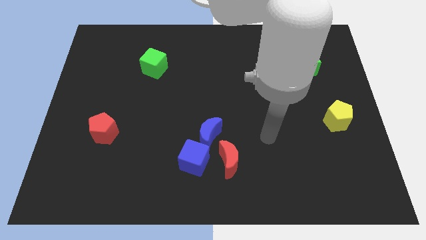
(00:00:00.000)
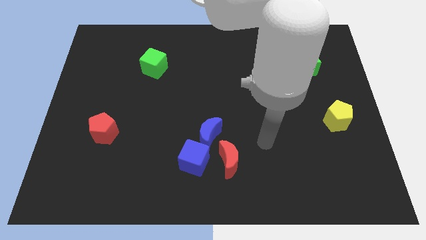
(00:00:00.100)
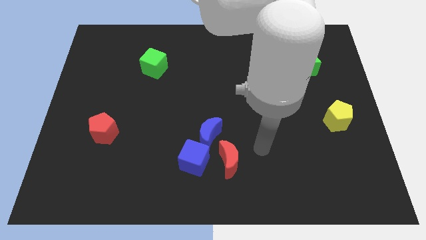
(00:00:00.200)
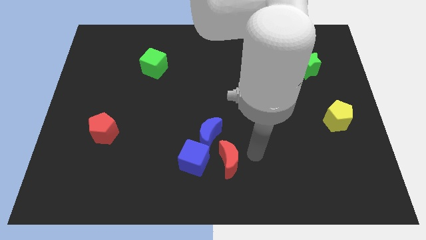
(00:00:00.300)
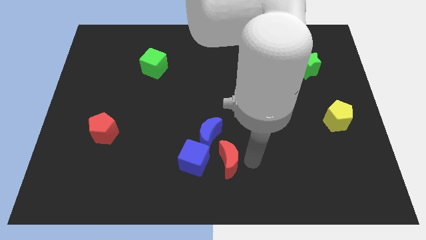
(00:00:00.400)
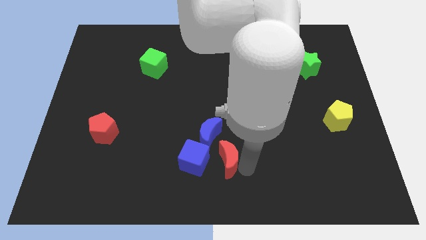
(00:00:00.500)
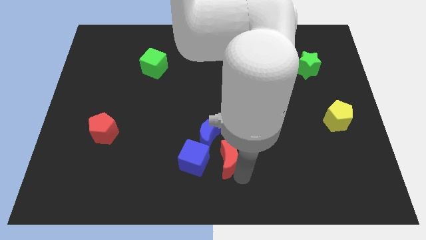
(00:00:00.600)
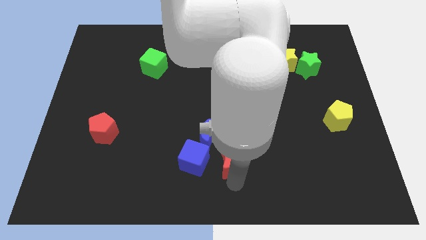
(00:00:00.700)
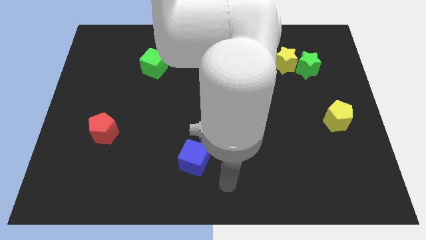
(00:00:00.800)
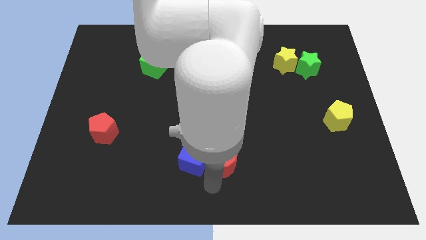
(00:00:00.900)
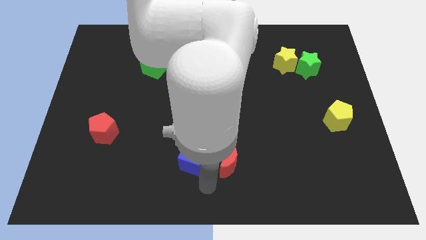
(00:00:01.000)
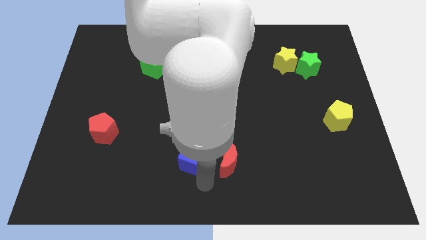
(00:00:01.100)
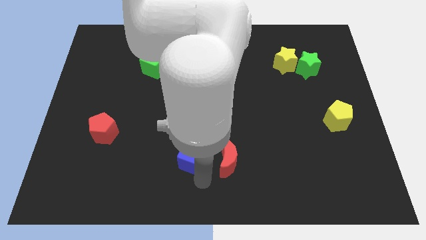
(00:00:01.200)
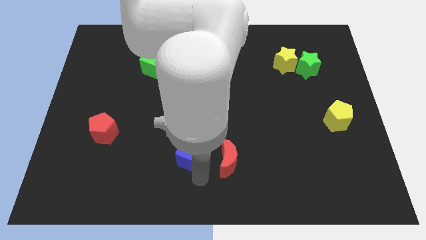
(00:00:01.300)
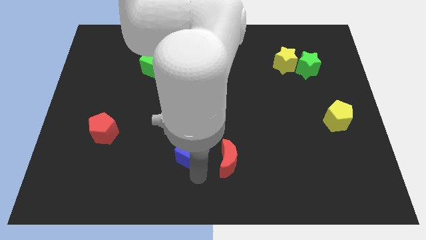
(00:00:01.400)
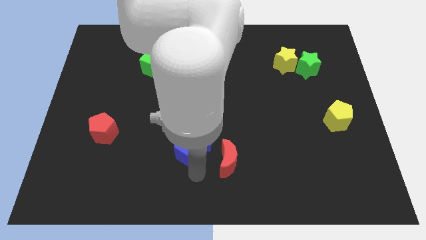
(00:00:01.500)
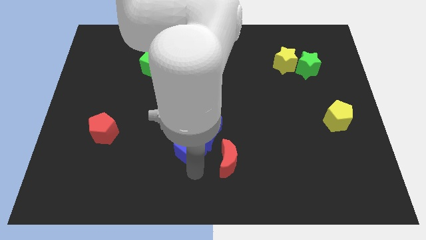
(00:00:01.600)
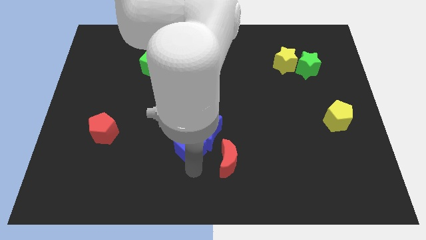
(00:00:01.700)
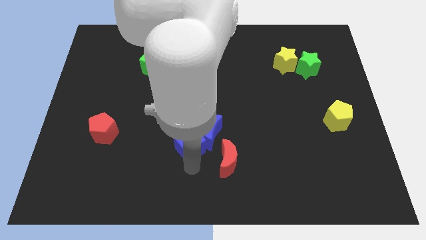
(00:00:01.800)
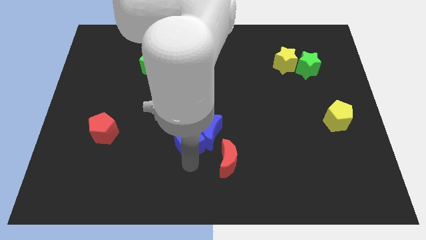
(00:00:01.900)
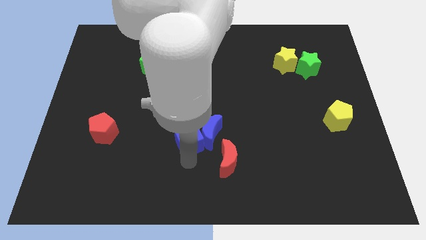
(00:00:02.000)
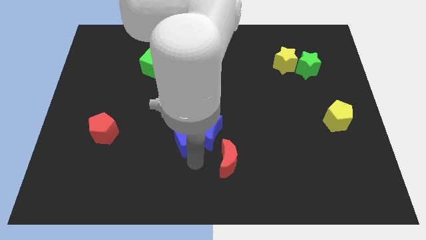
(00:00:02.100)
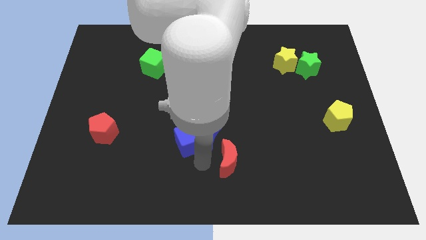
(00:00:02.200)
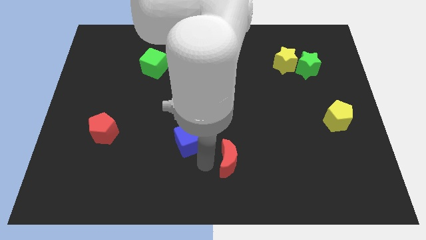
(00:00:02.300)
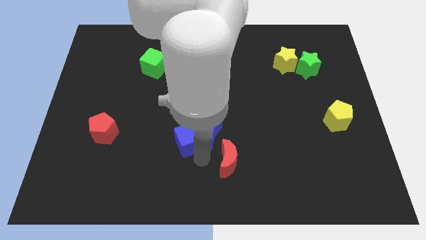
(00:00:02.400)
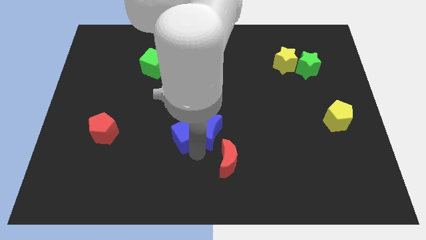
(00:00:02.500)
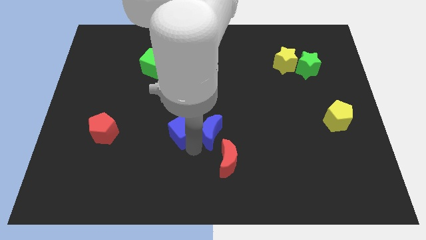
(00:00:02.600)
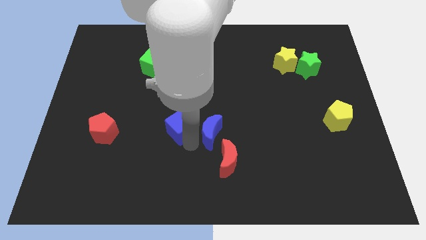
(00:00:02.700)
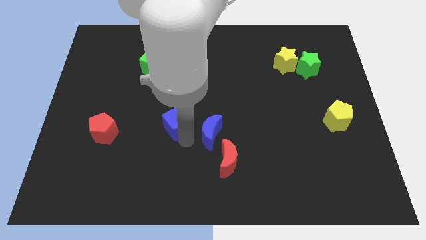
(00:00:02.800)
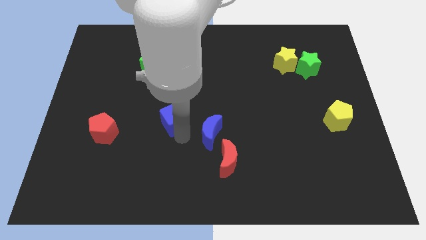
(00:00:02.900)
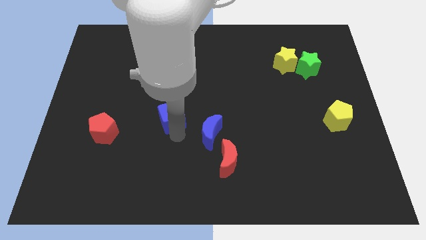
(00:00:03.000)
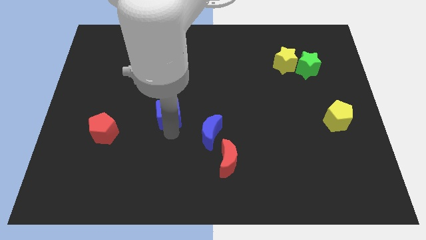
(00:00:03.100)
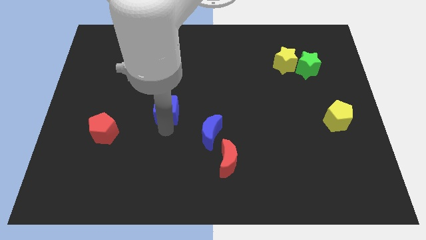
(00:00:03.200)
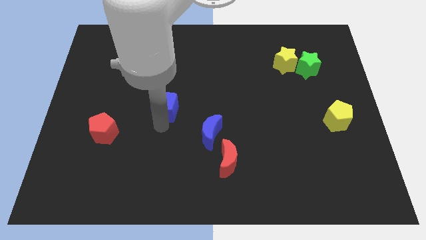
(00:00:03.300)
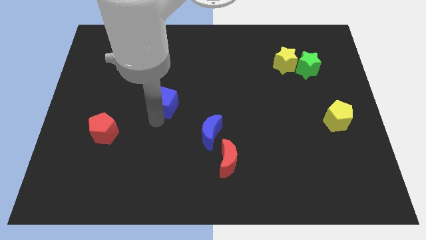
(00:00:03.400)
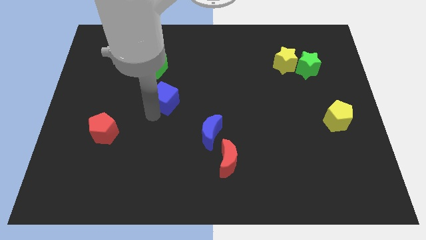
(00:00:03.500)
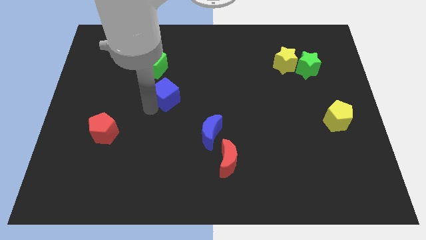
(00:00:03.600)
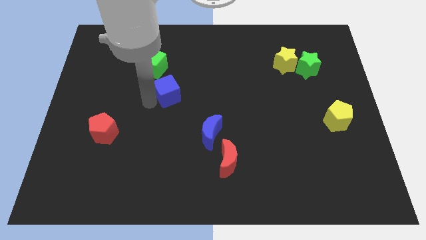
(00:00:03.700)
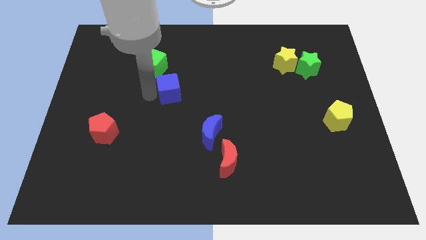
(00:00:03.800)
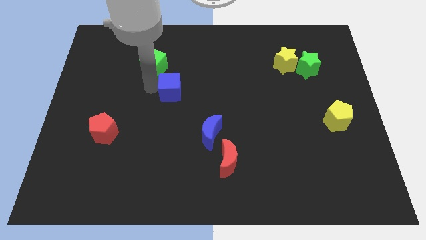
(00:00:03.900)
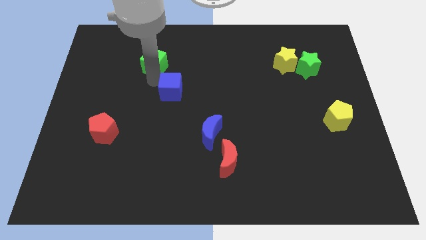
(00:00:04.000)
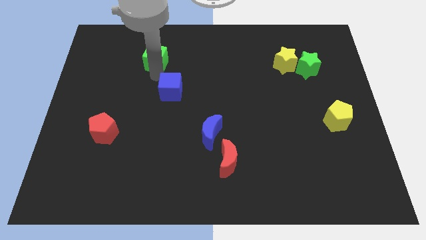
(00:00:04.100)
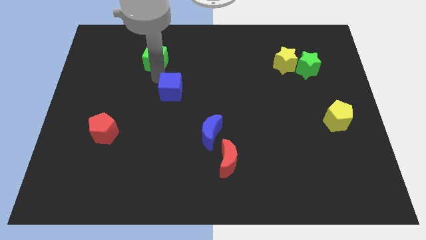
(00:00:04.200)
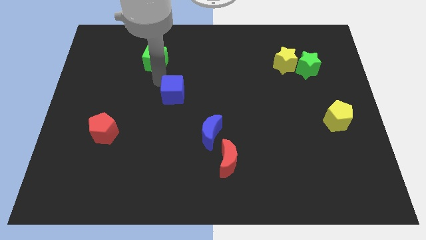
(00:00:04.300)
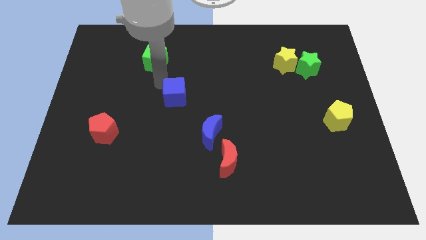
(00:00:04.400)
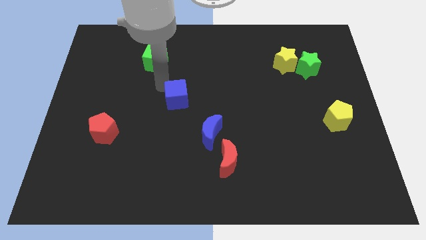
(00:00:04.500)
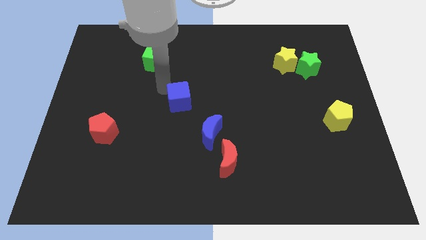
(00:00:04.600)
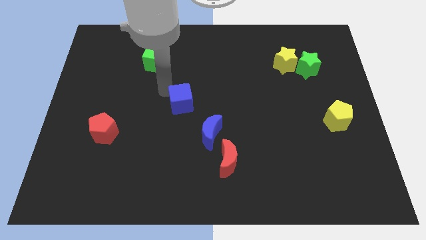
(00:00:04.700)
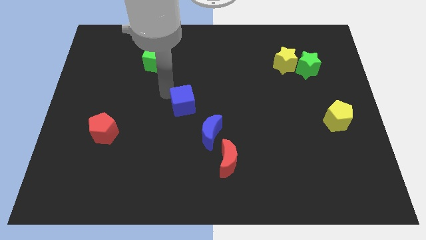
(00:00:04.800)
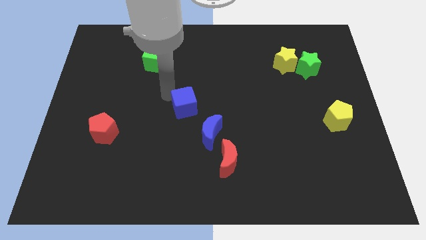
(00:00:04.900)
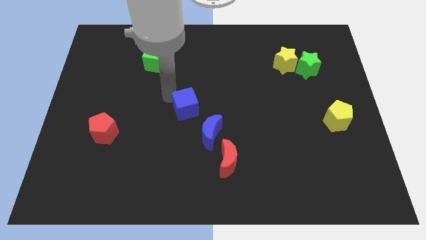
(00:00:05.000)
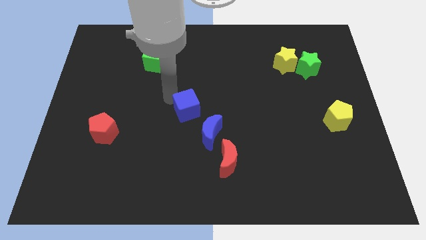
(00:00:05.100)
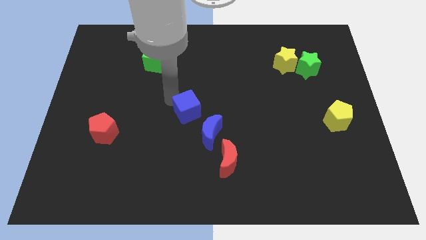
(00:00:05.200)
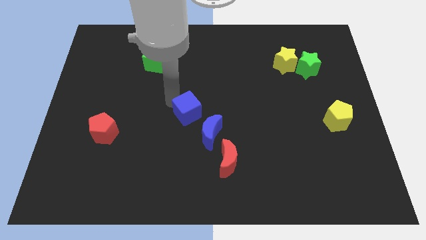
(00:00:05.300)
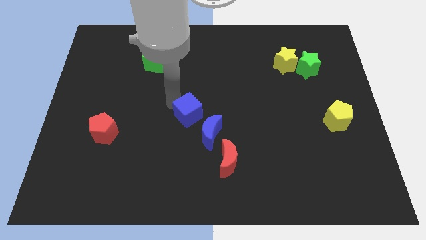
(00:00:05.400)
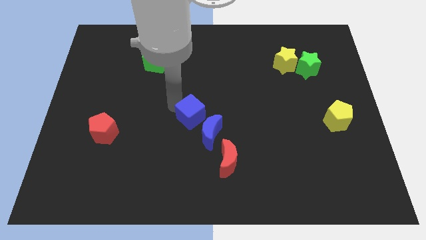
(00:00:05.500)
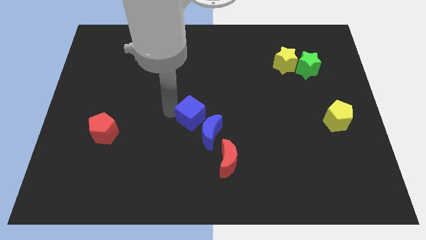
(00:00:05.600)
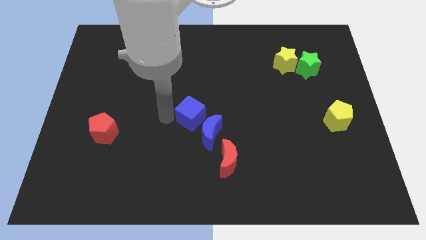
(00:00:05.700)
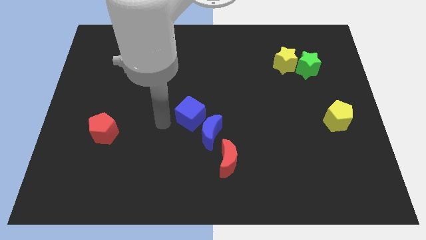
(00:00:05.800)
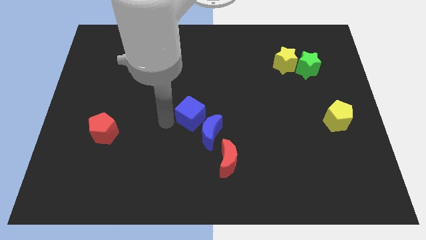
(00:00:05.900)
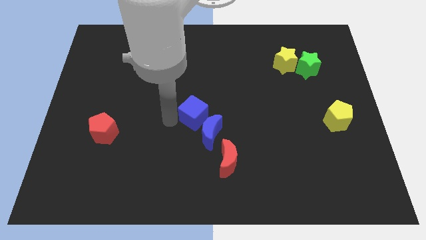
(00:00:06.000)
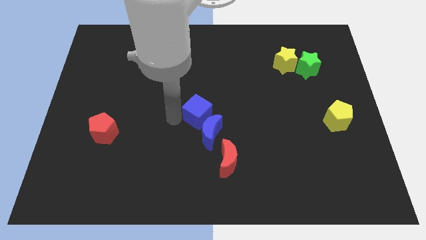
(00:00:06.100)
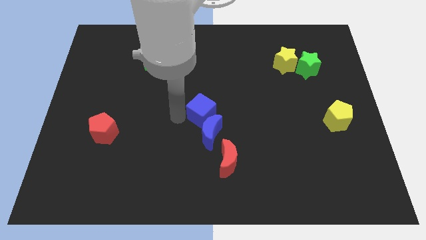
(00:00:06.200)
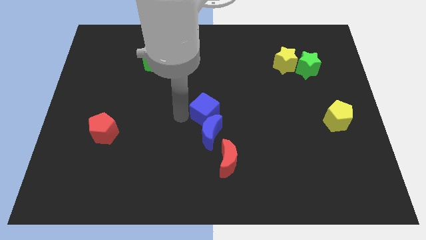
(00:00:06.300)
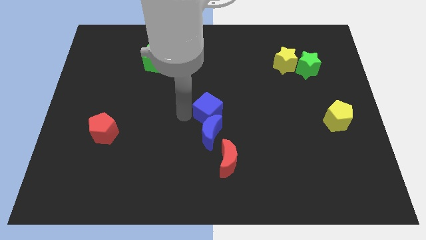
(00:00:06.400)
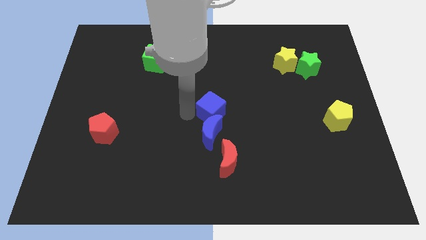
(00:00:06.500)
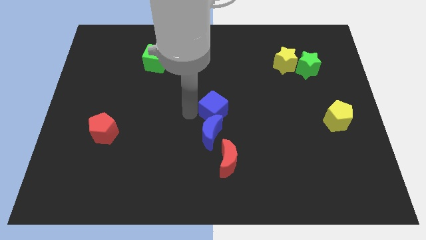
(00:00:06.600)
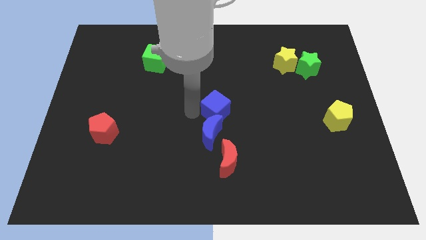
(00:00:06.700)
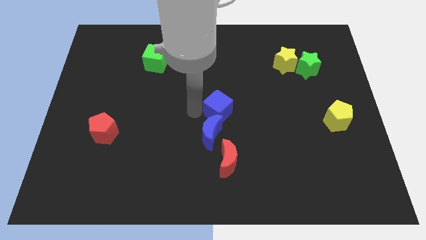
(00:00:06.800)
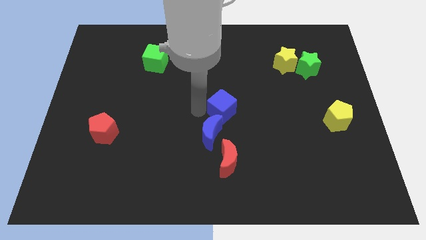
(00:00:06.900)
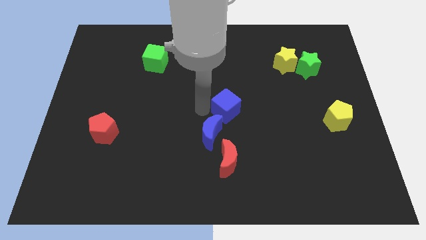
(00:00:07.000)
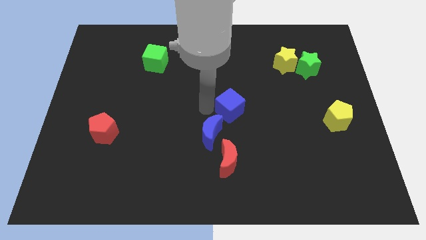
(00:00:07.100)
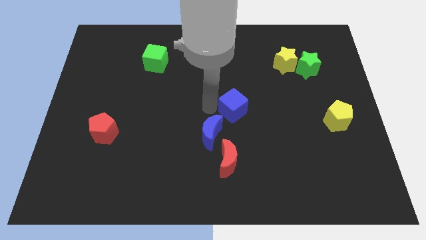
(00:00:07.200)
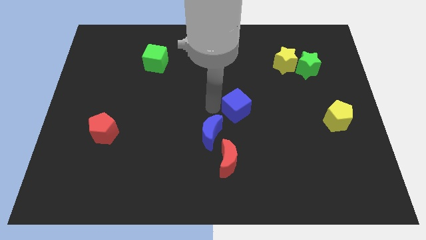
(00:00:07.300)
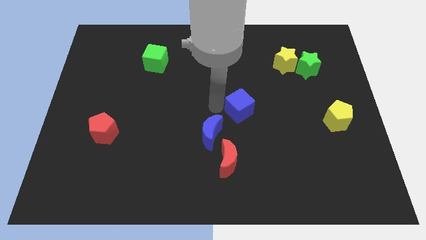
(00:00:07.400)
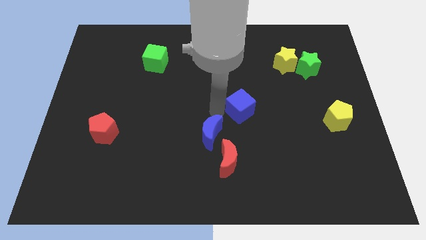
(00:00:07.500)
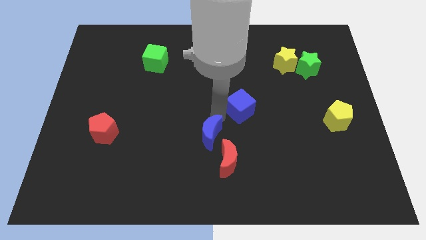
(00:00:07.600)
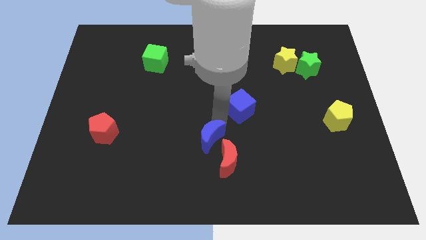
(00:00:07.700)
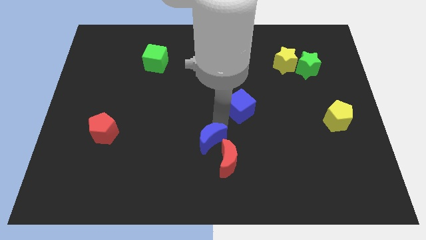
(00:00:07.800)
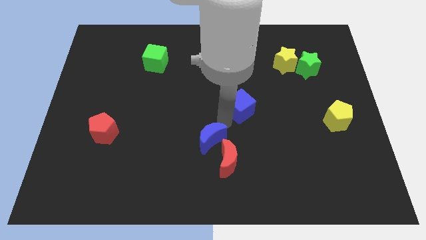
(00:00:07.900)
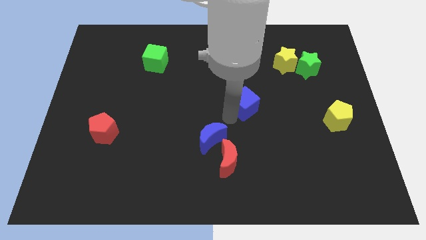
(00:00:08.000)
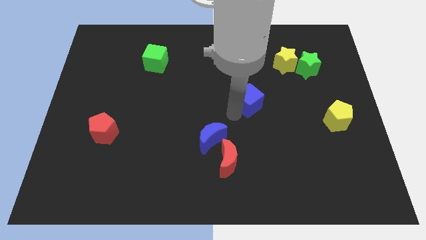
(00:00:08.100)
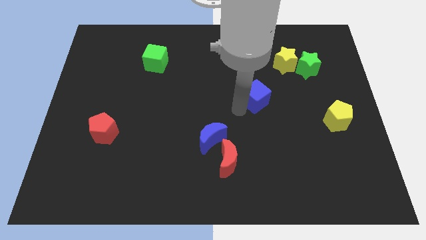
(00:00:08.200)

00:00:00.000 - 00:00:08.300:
move the blue cube diagonally up and right
